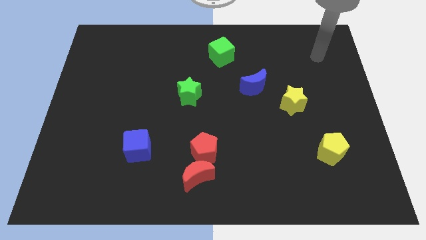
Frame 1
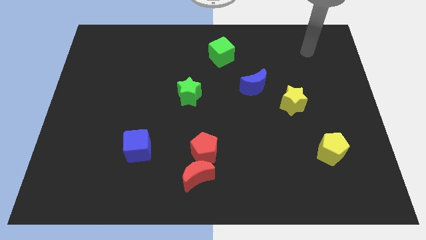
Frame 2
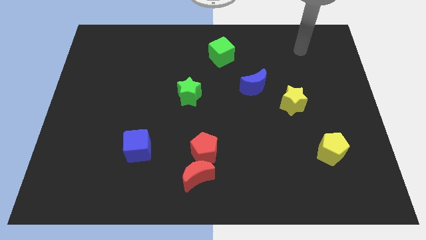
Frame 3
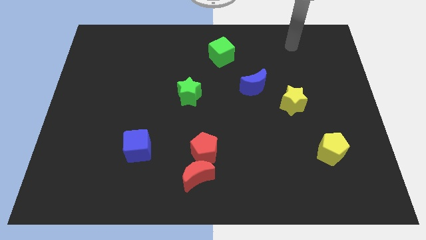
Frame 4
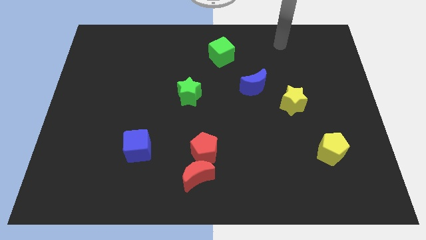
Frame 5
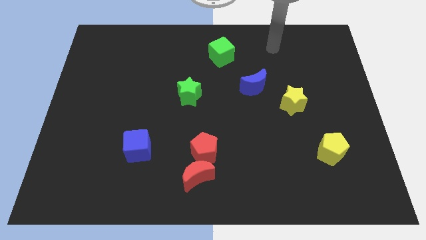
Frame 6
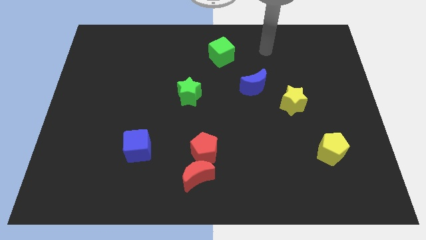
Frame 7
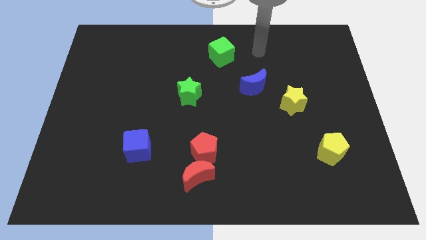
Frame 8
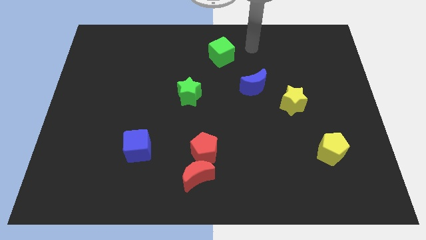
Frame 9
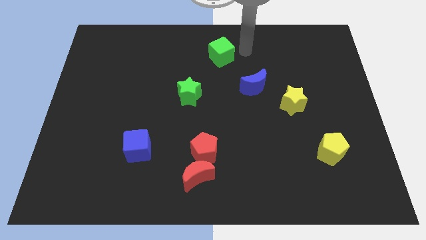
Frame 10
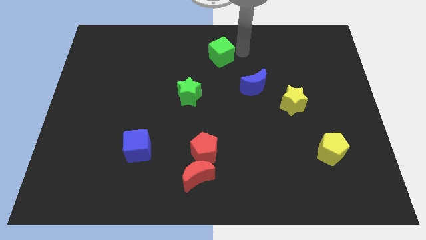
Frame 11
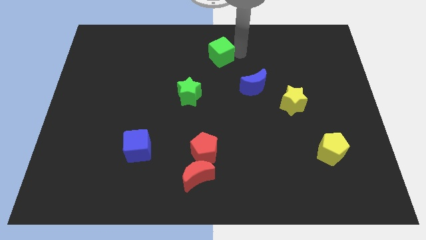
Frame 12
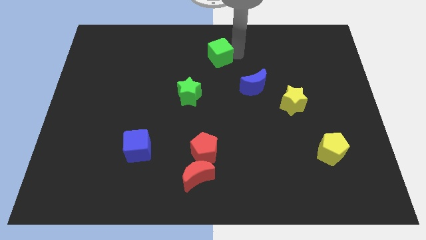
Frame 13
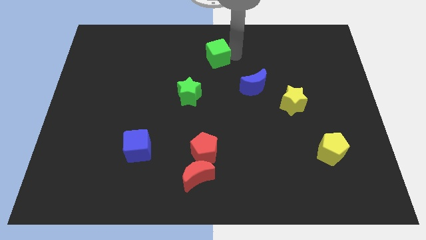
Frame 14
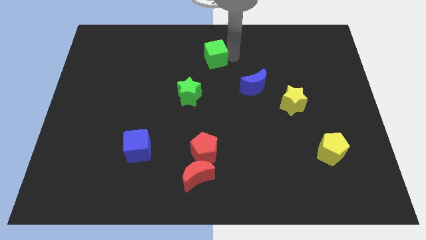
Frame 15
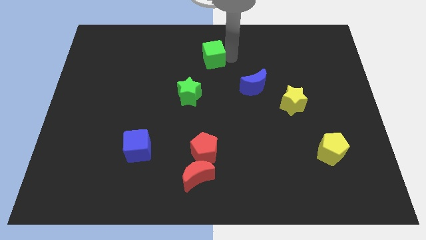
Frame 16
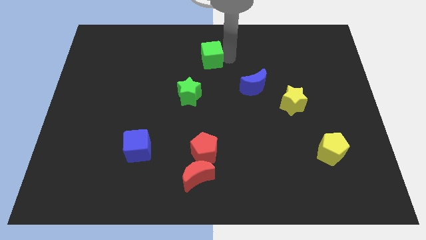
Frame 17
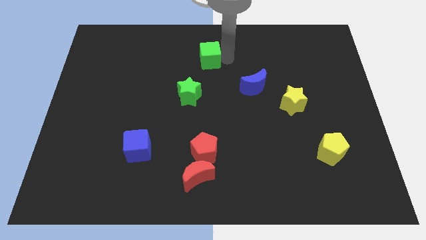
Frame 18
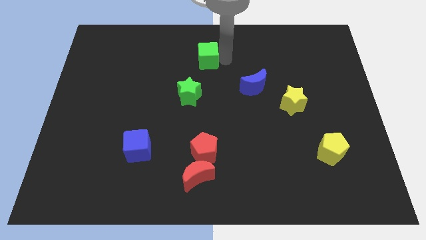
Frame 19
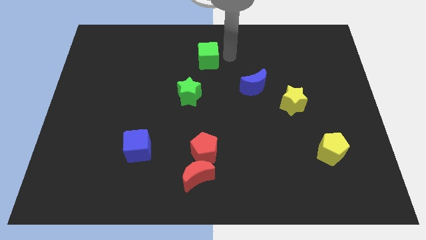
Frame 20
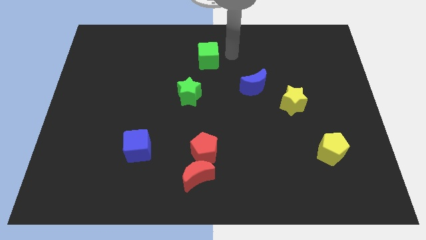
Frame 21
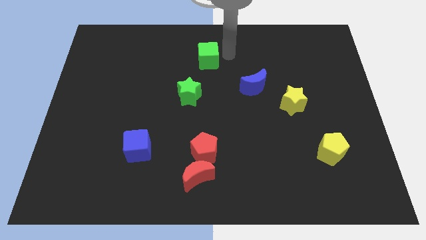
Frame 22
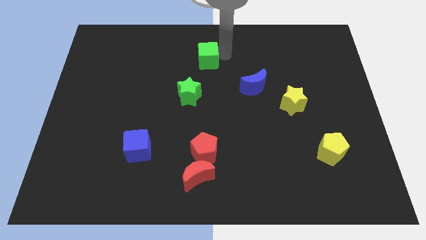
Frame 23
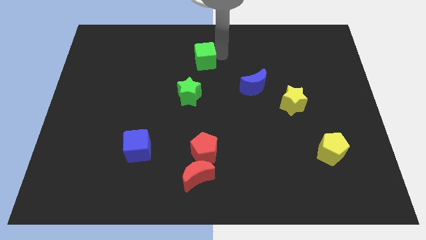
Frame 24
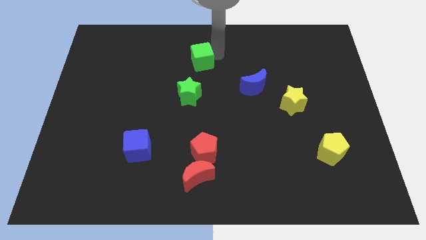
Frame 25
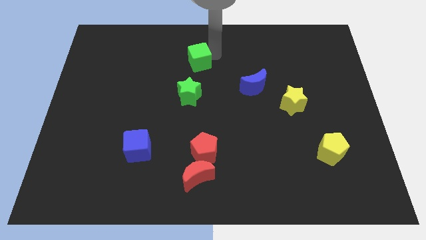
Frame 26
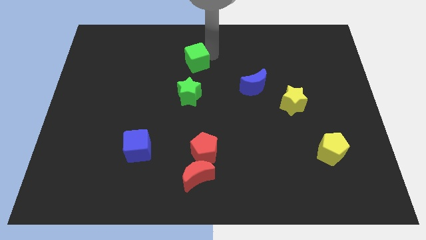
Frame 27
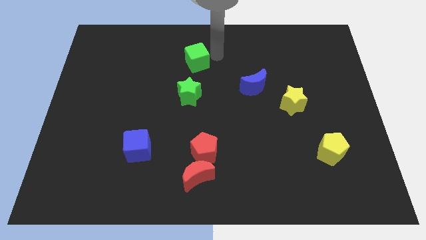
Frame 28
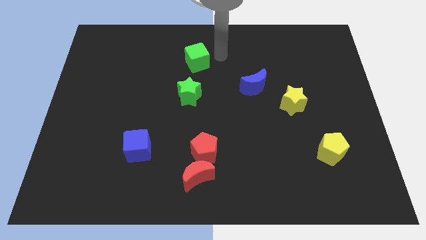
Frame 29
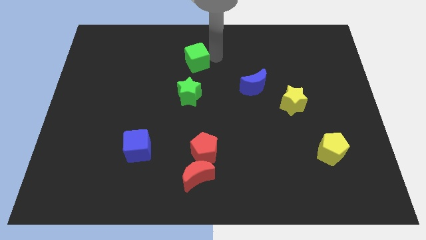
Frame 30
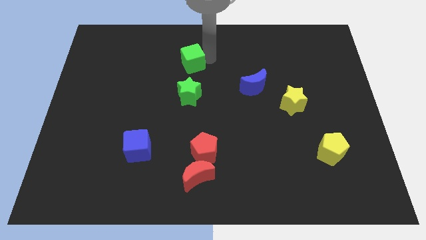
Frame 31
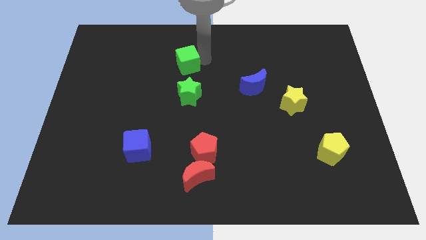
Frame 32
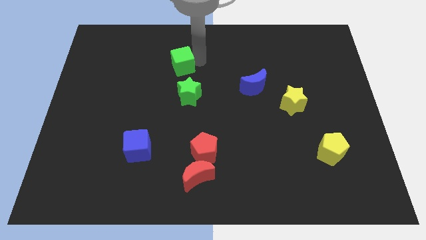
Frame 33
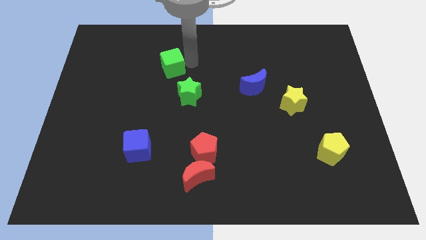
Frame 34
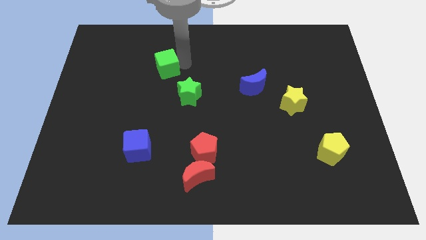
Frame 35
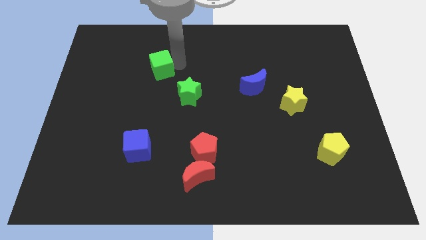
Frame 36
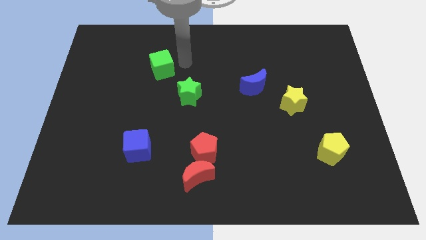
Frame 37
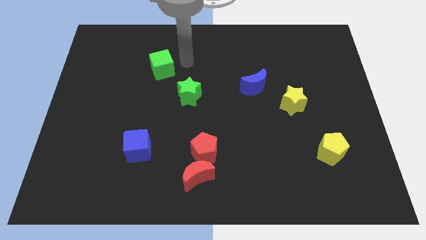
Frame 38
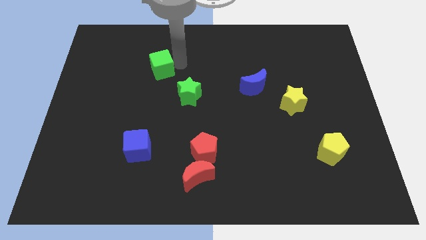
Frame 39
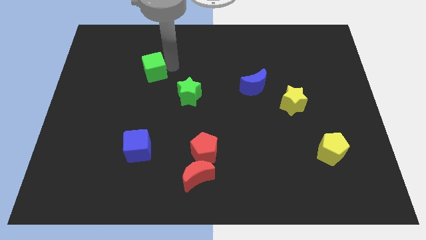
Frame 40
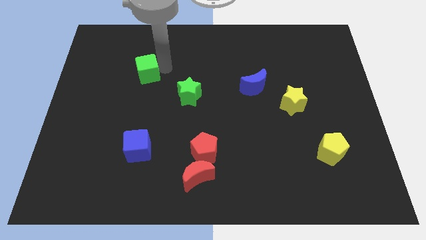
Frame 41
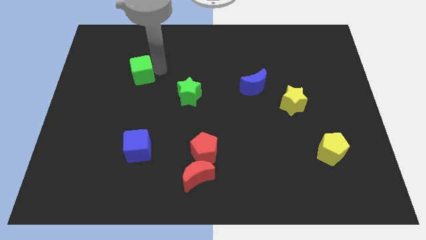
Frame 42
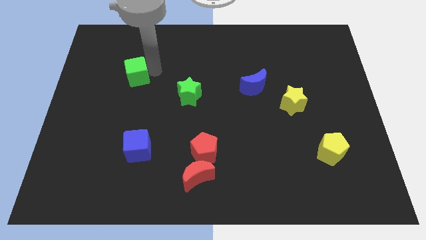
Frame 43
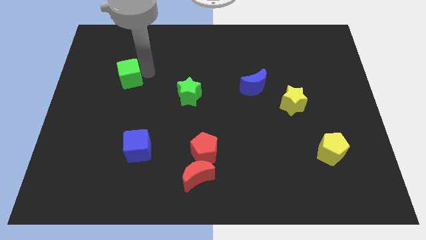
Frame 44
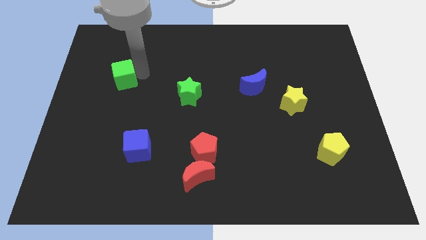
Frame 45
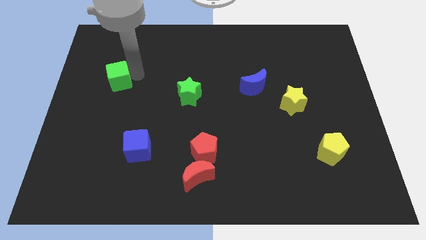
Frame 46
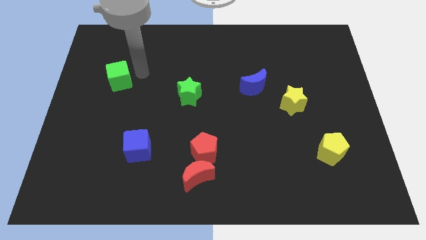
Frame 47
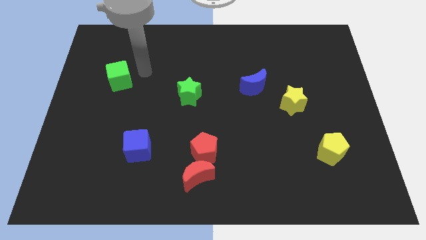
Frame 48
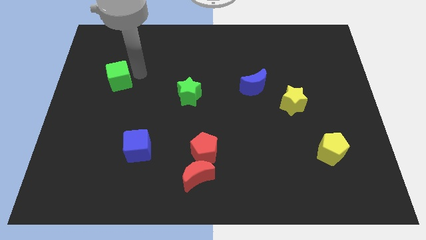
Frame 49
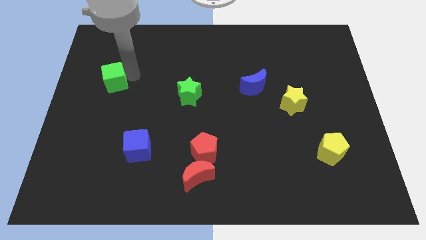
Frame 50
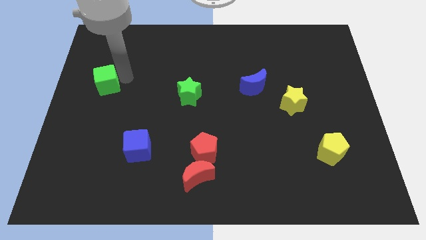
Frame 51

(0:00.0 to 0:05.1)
slide the green cube to the center left

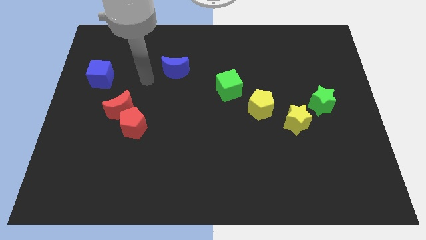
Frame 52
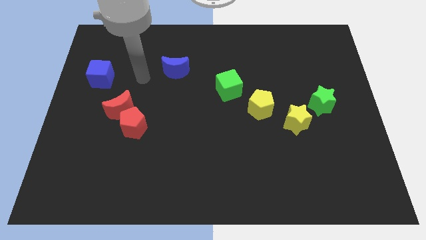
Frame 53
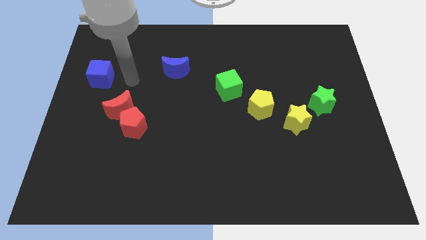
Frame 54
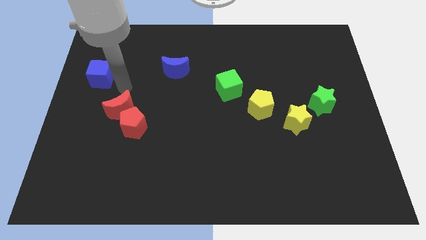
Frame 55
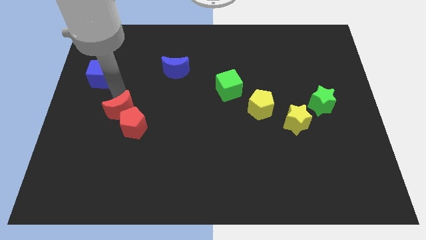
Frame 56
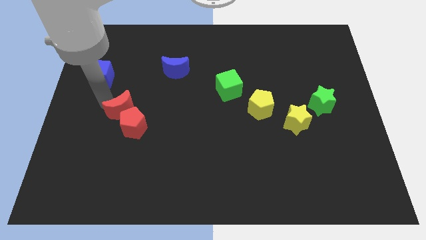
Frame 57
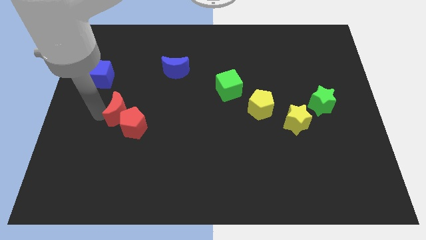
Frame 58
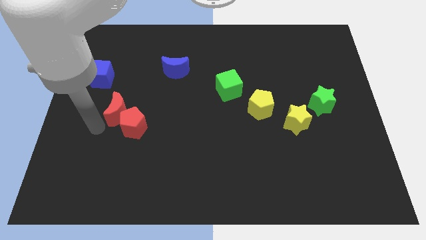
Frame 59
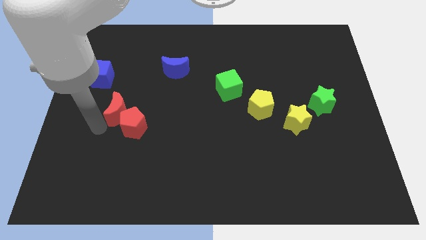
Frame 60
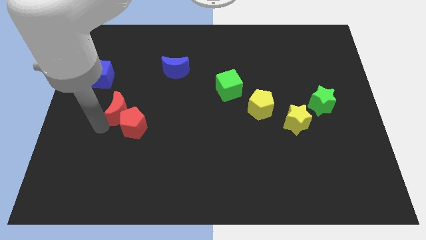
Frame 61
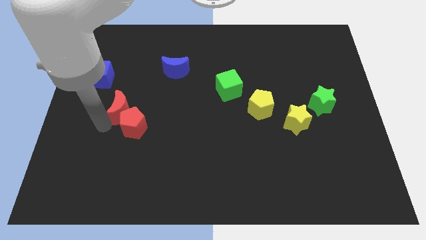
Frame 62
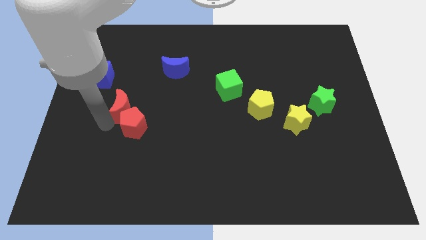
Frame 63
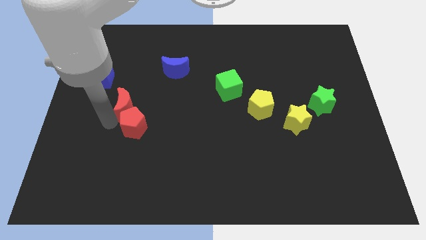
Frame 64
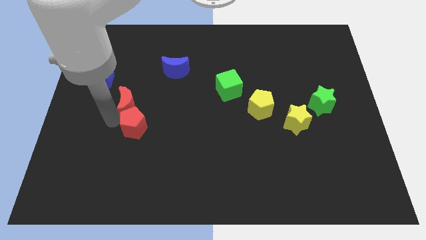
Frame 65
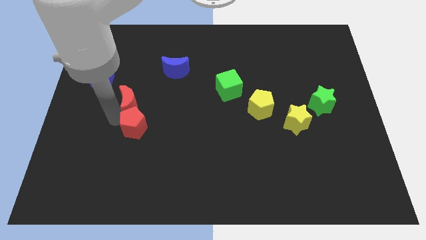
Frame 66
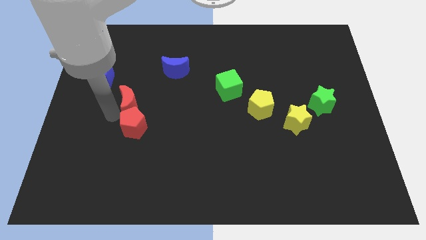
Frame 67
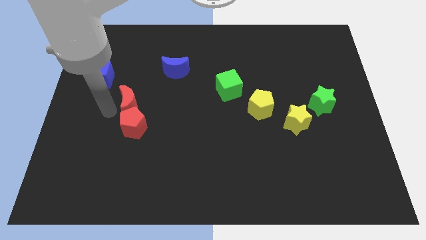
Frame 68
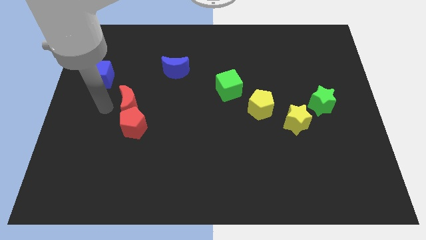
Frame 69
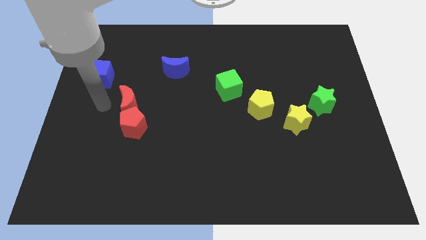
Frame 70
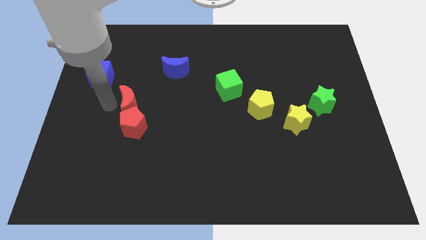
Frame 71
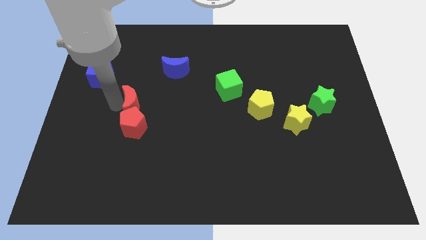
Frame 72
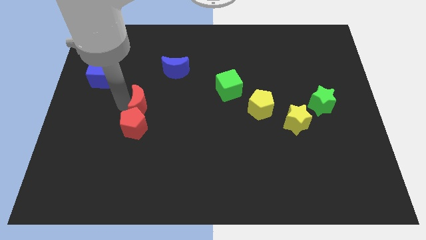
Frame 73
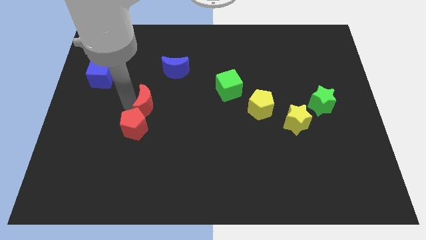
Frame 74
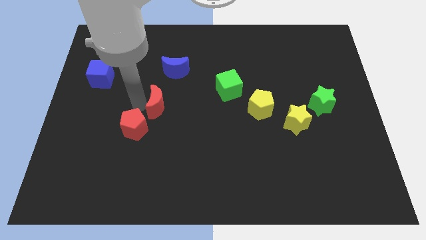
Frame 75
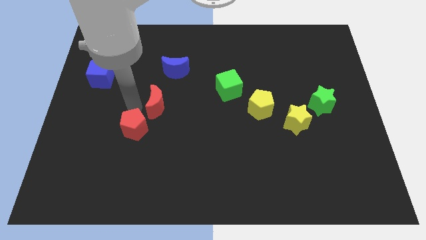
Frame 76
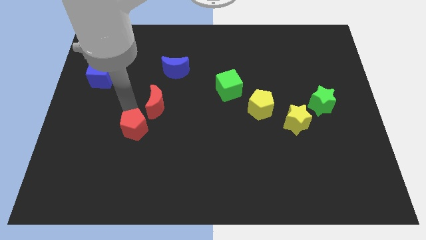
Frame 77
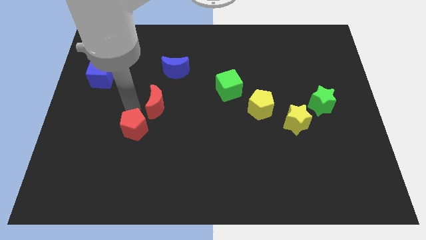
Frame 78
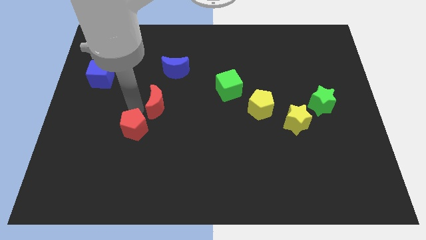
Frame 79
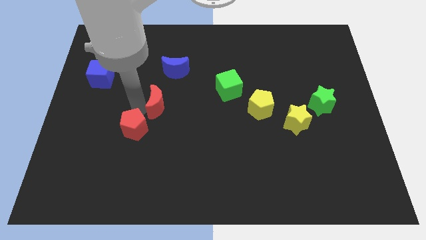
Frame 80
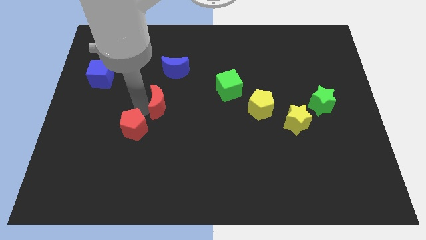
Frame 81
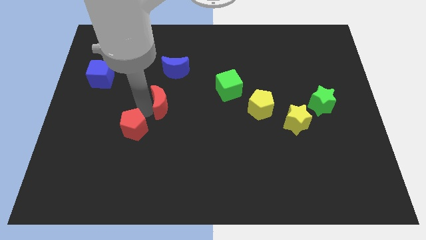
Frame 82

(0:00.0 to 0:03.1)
push the red moon to the middle
